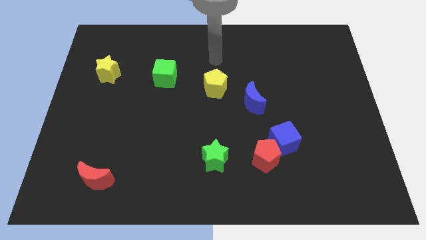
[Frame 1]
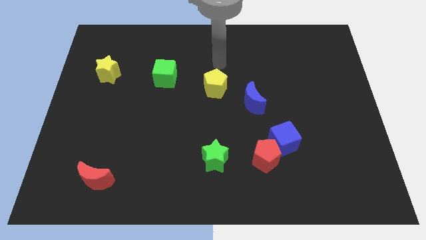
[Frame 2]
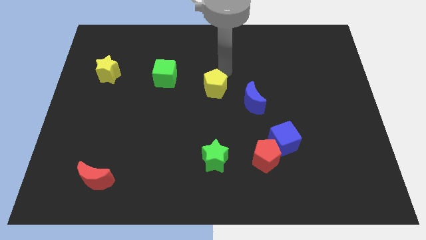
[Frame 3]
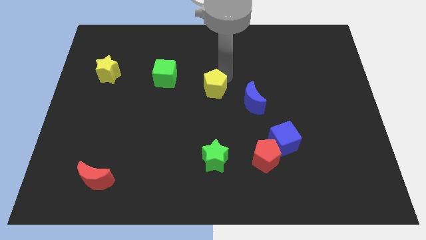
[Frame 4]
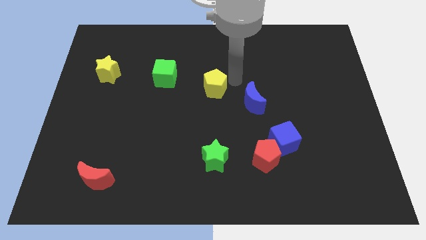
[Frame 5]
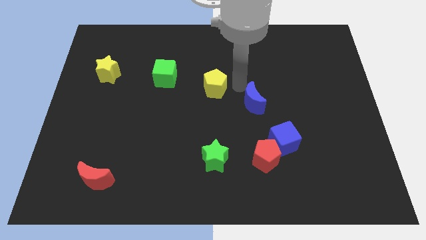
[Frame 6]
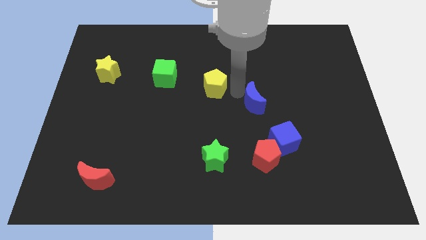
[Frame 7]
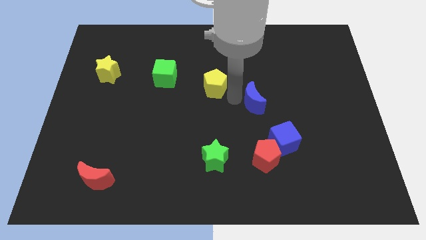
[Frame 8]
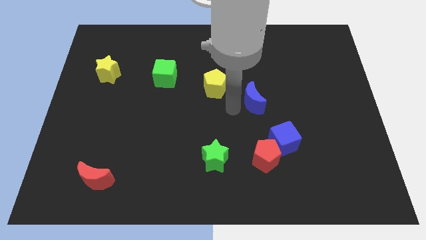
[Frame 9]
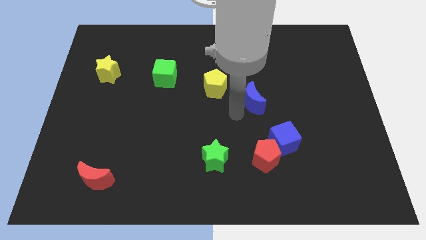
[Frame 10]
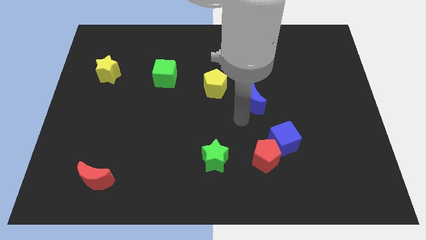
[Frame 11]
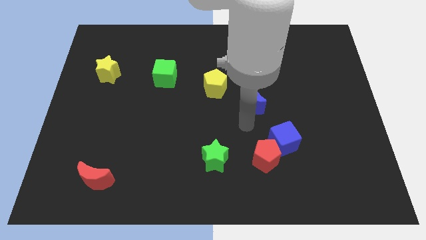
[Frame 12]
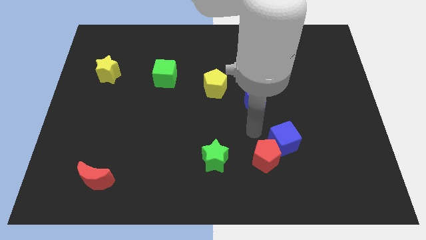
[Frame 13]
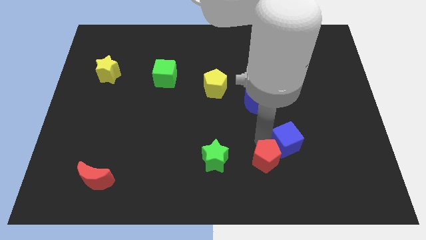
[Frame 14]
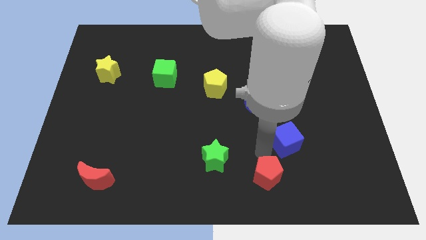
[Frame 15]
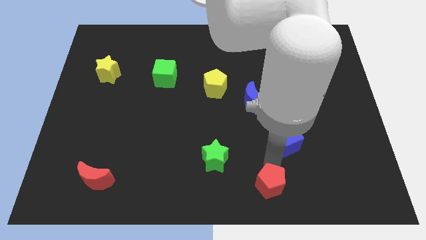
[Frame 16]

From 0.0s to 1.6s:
separate the blue cube from the red pentagon

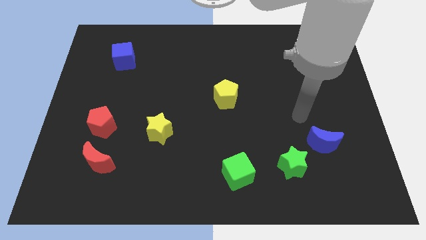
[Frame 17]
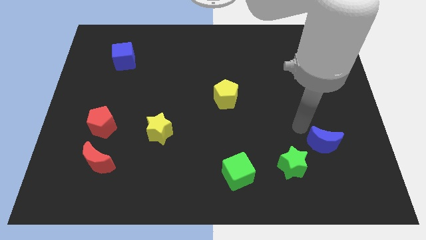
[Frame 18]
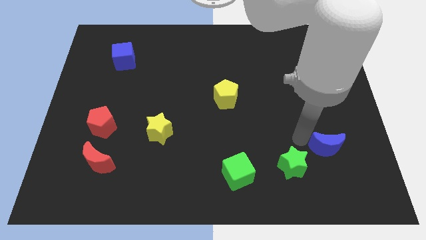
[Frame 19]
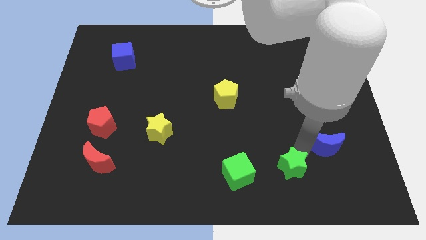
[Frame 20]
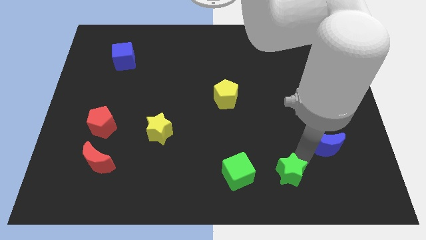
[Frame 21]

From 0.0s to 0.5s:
move the blue moon away from the green star

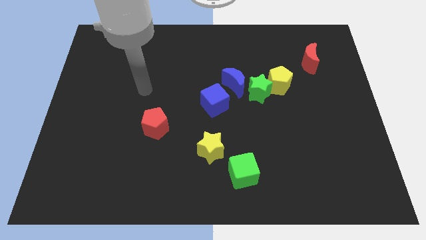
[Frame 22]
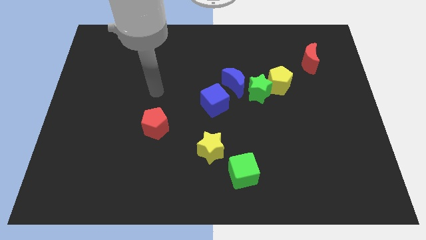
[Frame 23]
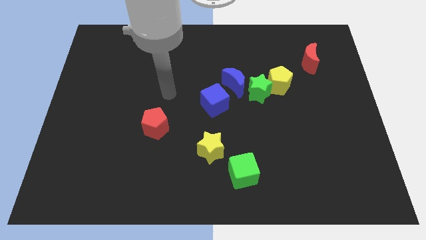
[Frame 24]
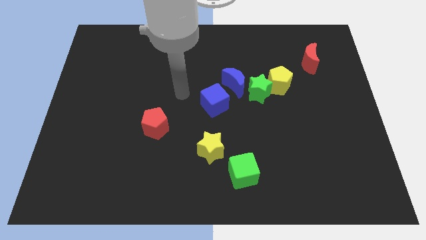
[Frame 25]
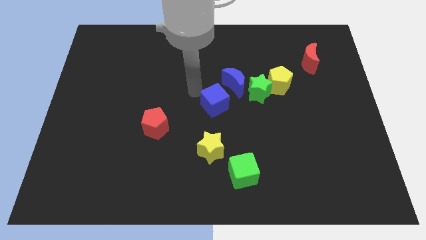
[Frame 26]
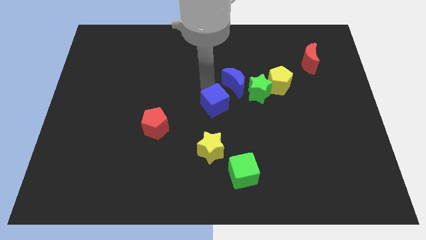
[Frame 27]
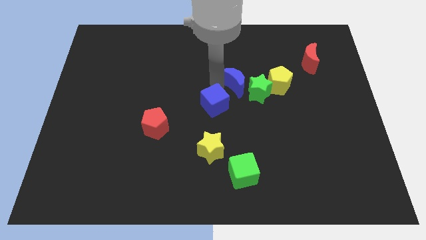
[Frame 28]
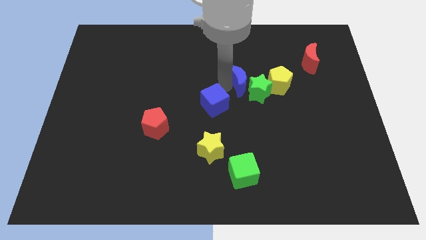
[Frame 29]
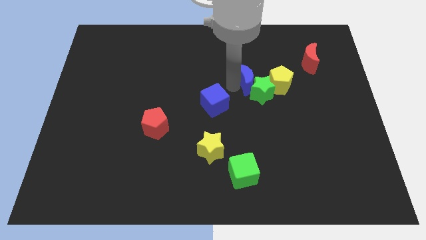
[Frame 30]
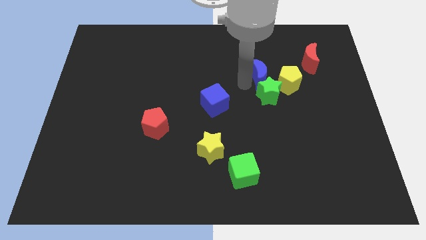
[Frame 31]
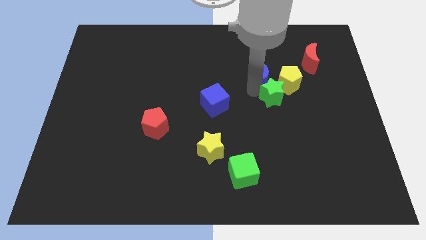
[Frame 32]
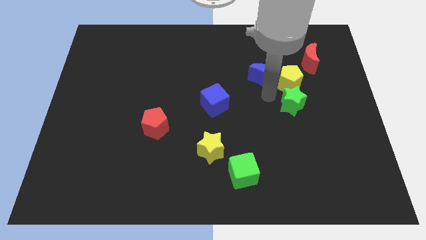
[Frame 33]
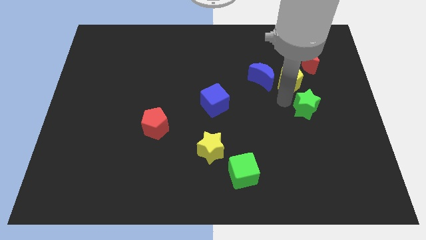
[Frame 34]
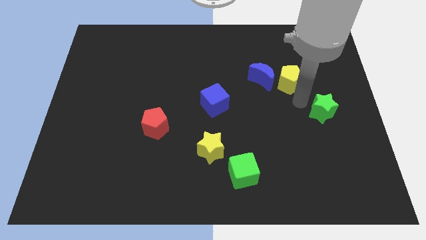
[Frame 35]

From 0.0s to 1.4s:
pull the yellow pentagon apart from the green star

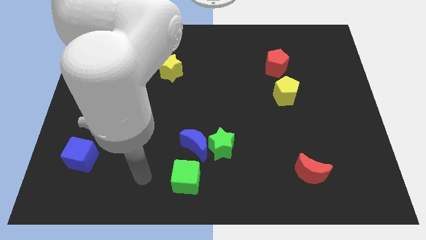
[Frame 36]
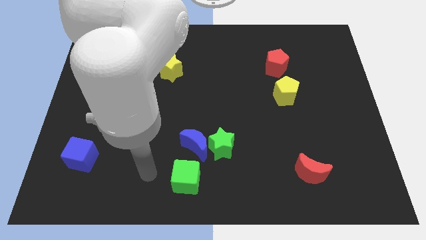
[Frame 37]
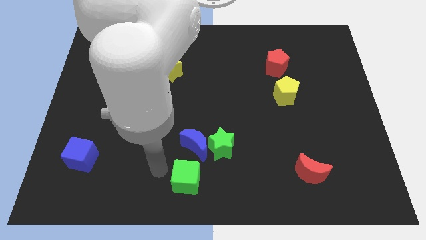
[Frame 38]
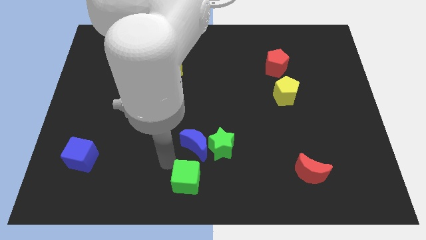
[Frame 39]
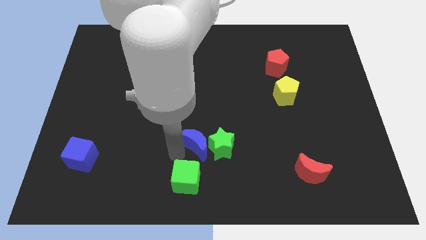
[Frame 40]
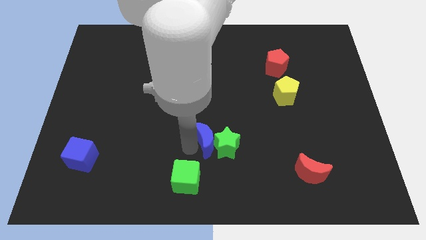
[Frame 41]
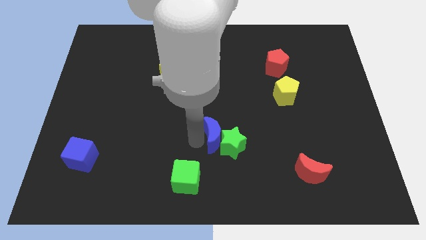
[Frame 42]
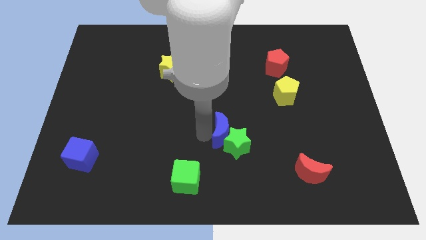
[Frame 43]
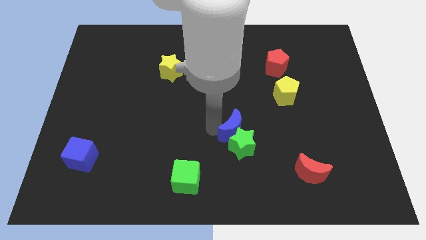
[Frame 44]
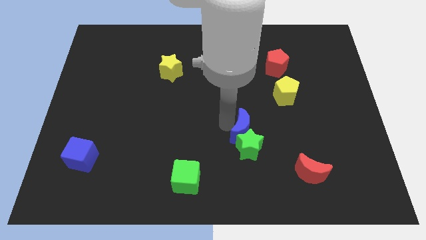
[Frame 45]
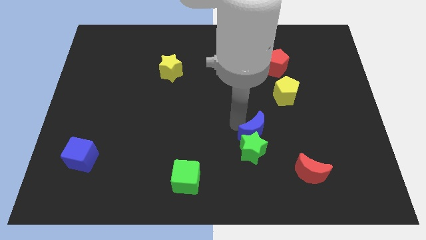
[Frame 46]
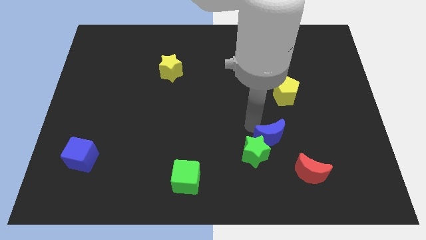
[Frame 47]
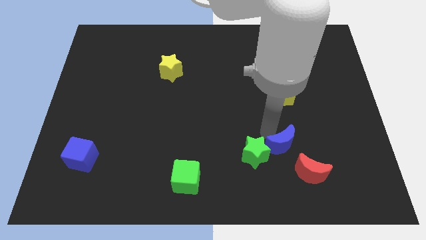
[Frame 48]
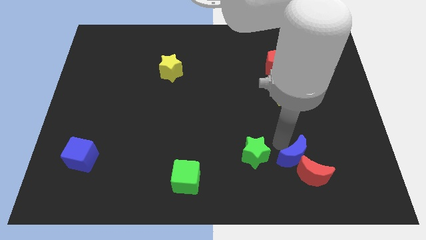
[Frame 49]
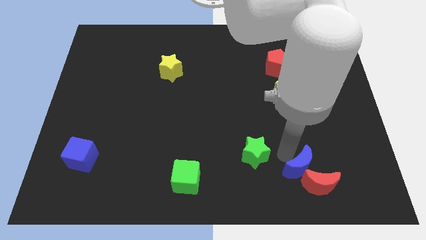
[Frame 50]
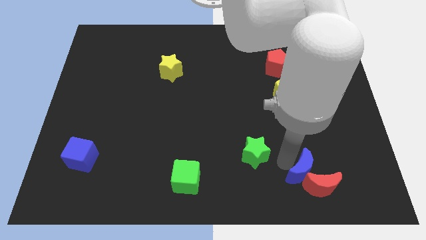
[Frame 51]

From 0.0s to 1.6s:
move the green star away from the blue moon

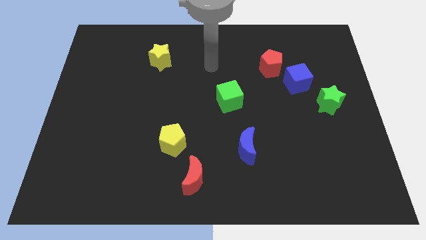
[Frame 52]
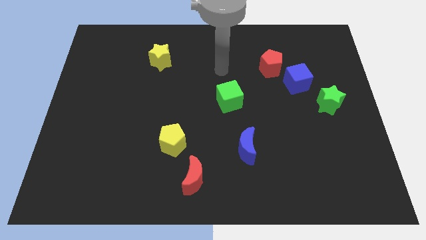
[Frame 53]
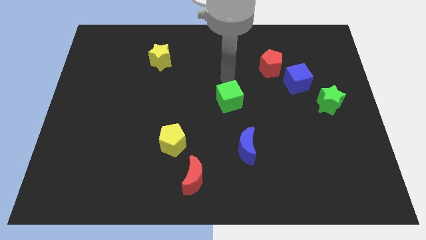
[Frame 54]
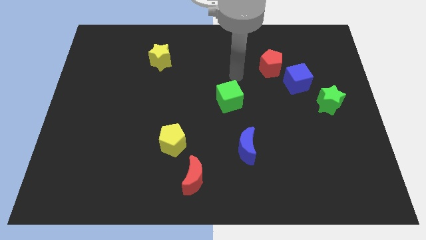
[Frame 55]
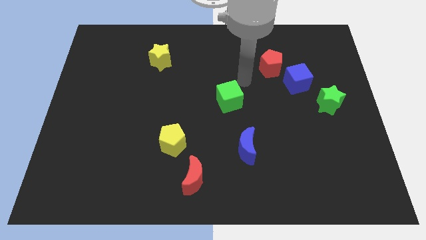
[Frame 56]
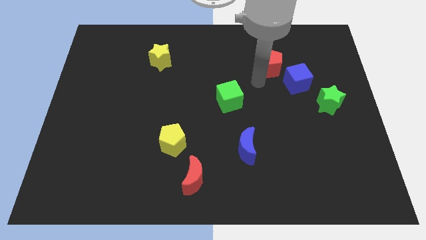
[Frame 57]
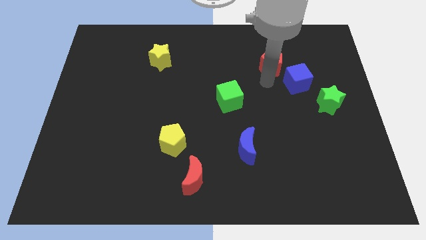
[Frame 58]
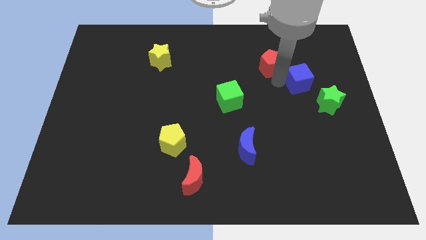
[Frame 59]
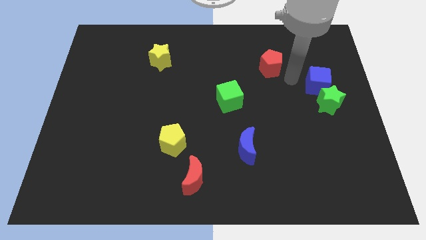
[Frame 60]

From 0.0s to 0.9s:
pull the red pentagon apart from the blue cube

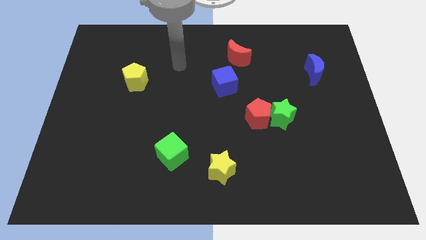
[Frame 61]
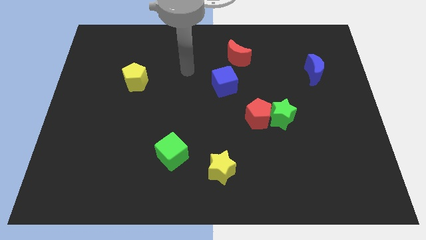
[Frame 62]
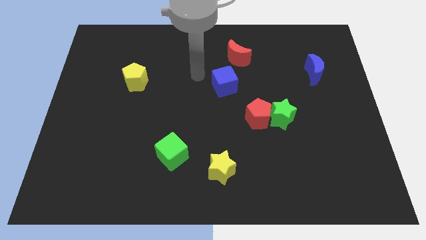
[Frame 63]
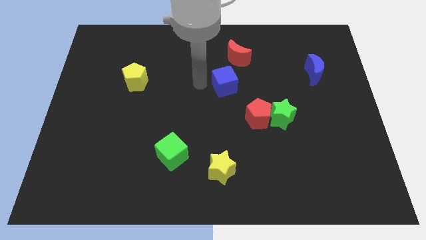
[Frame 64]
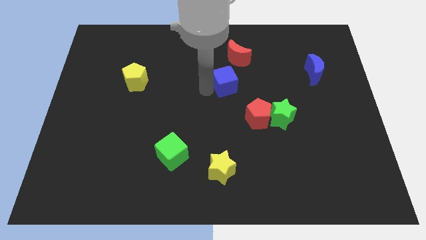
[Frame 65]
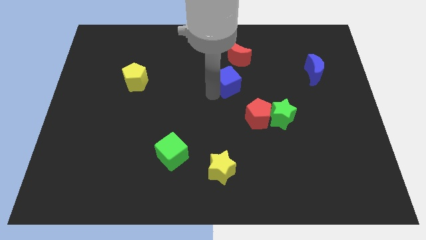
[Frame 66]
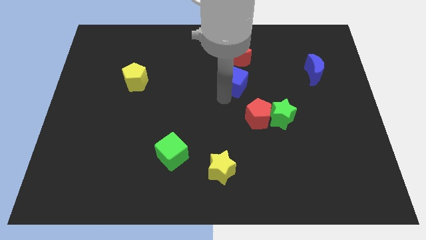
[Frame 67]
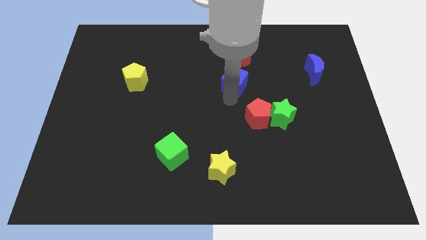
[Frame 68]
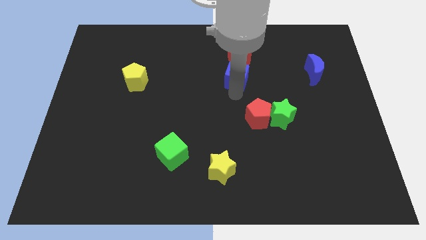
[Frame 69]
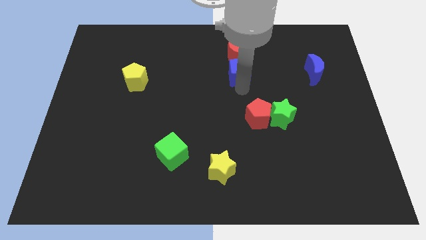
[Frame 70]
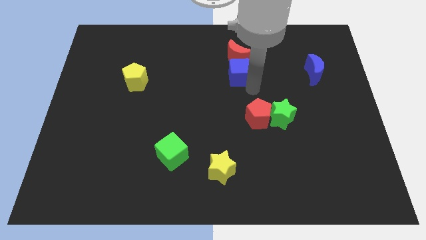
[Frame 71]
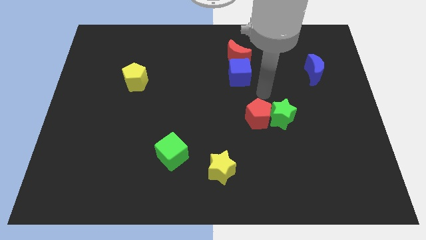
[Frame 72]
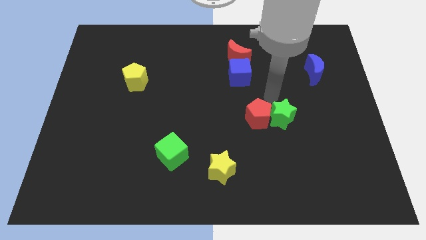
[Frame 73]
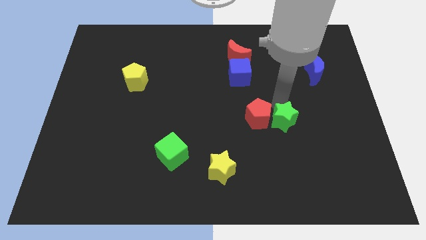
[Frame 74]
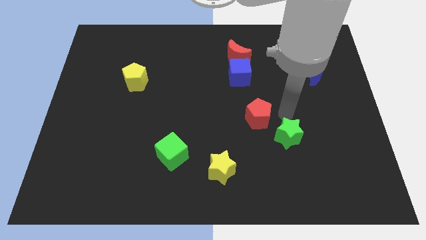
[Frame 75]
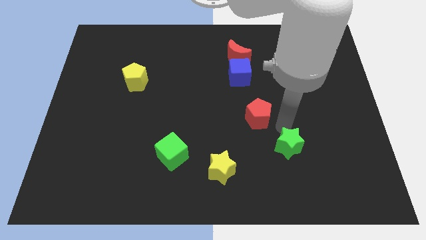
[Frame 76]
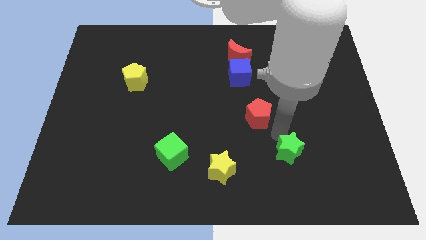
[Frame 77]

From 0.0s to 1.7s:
separate the red pentagon from the green star

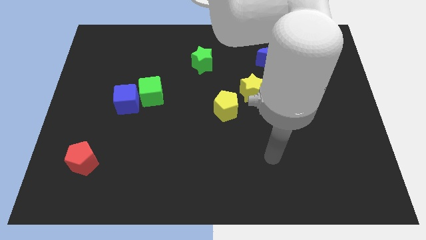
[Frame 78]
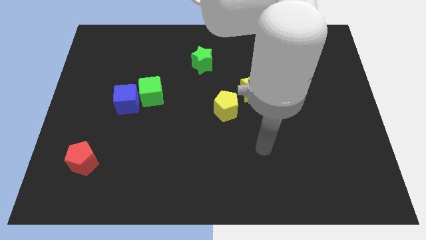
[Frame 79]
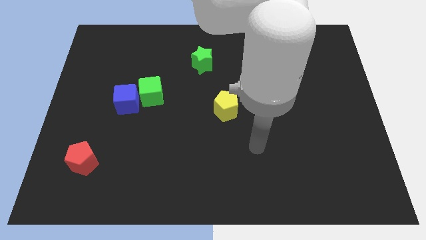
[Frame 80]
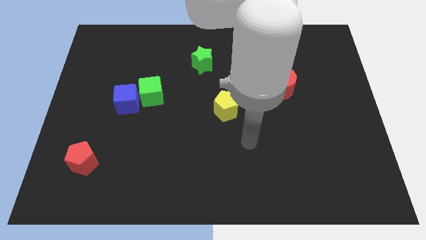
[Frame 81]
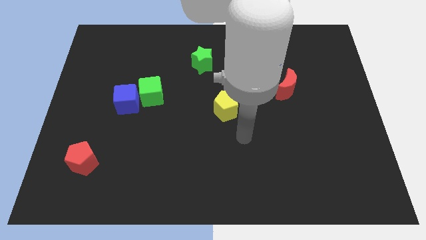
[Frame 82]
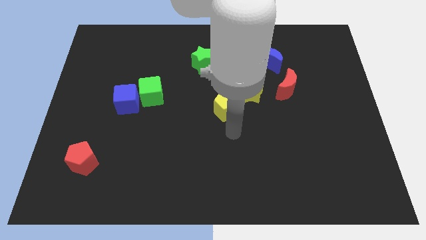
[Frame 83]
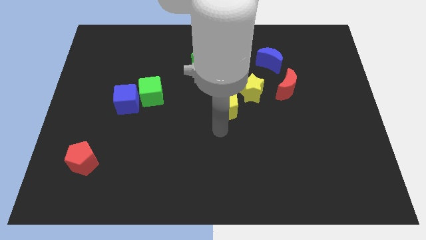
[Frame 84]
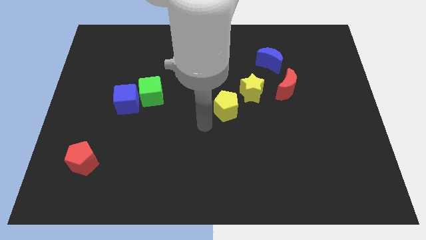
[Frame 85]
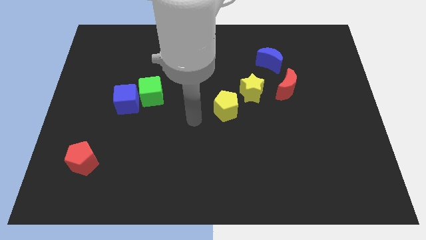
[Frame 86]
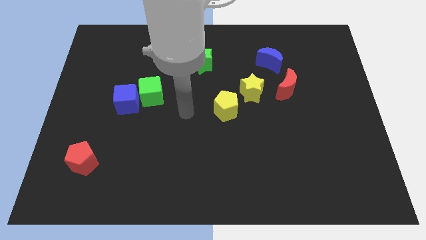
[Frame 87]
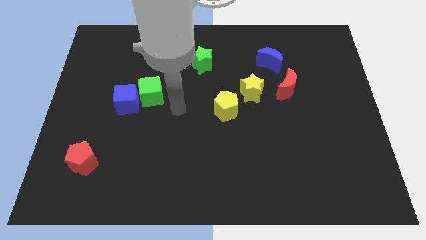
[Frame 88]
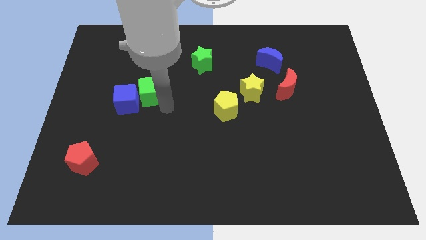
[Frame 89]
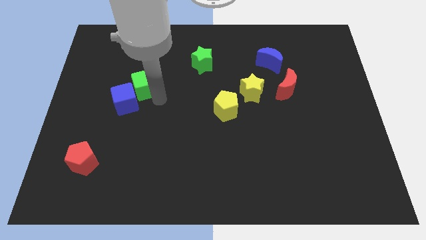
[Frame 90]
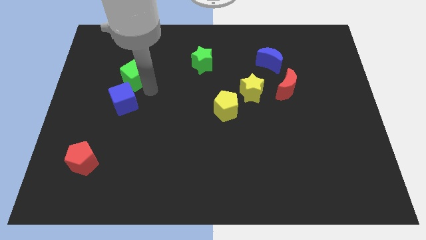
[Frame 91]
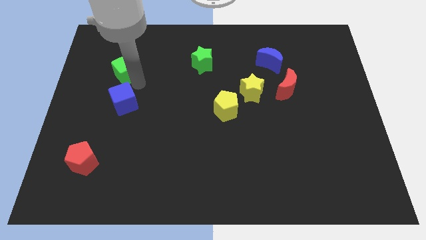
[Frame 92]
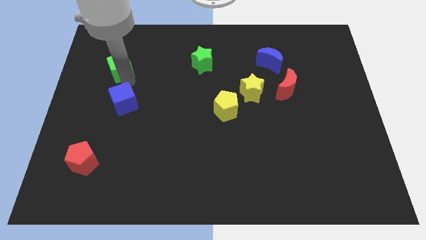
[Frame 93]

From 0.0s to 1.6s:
move the blue cube away from the green cube
